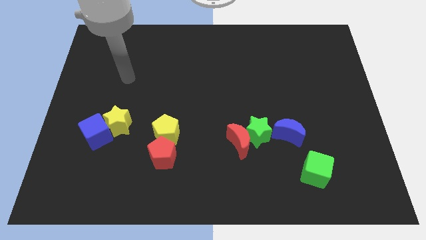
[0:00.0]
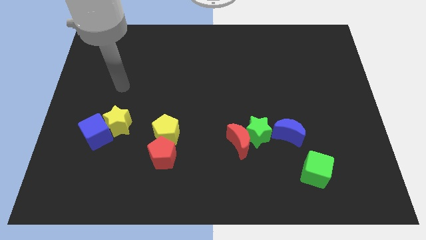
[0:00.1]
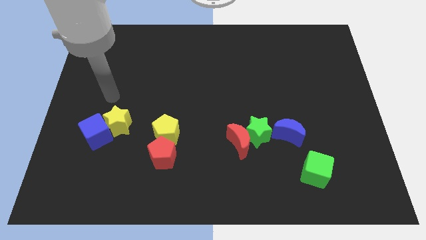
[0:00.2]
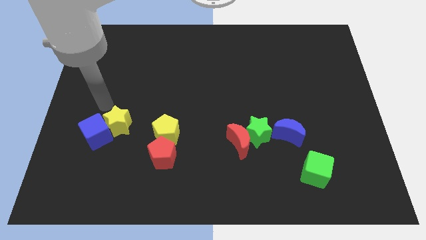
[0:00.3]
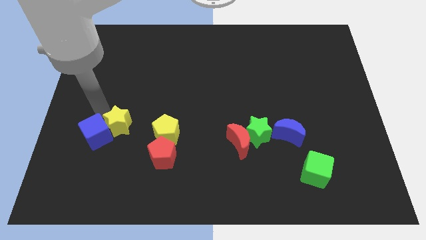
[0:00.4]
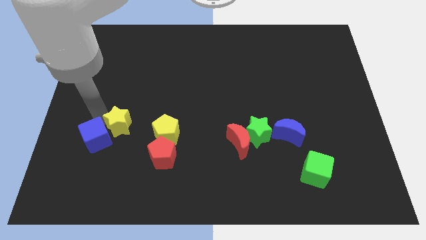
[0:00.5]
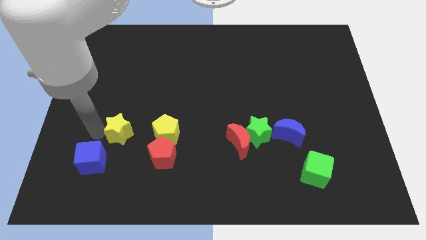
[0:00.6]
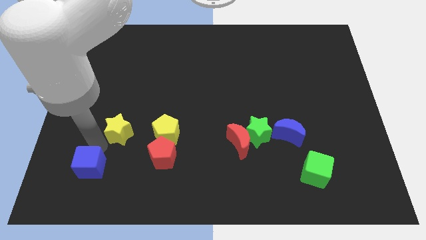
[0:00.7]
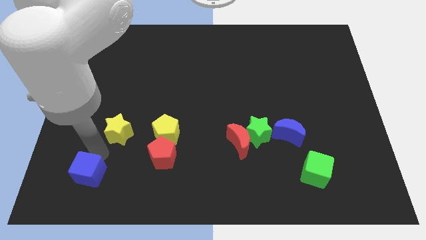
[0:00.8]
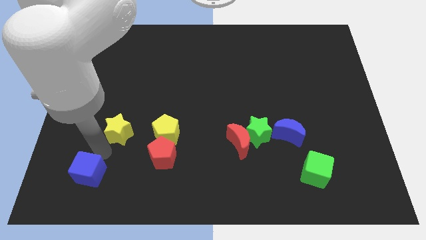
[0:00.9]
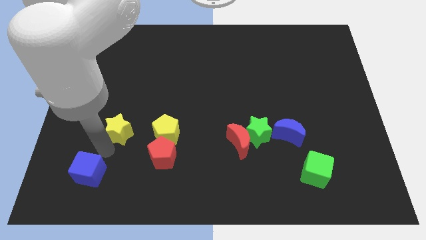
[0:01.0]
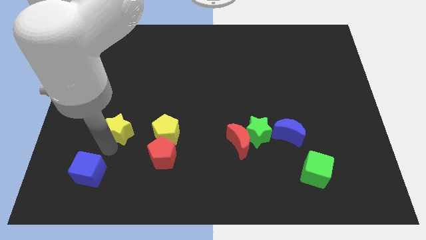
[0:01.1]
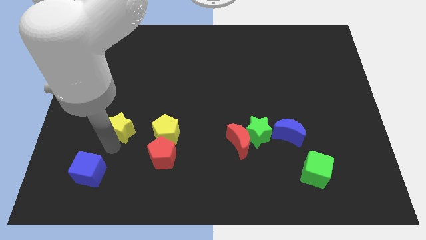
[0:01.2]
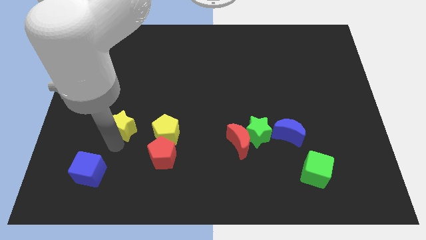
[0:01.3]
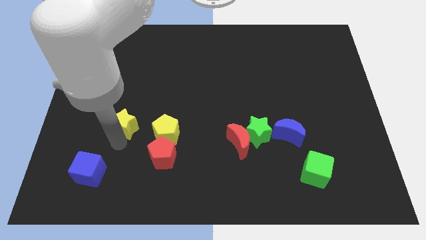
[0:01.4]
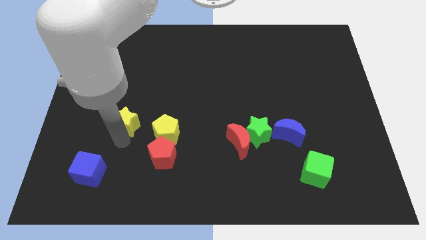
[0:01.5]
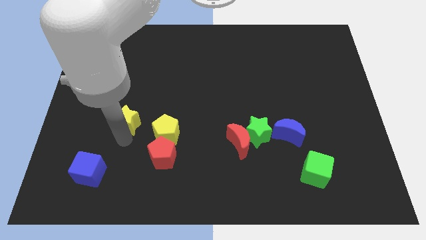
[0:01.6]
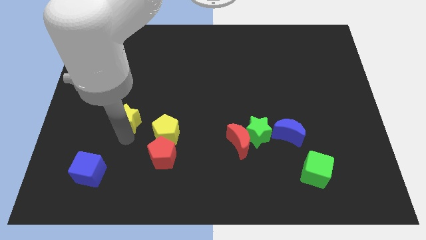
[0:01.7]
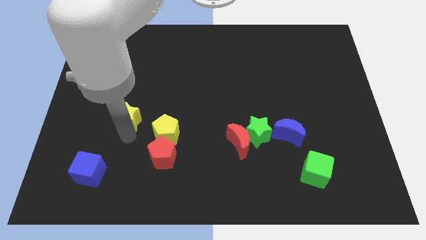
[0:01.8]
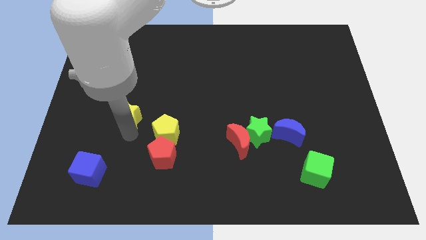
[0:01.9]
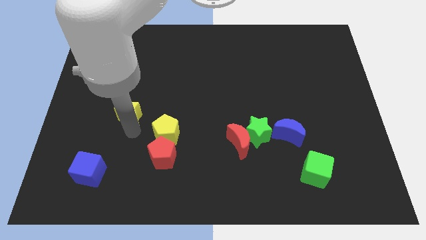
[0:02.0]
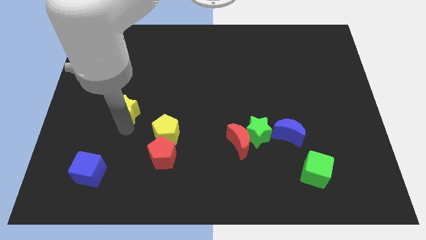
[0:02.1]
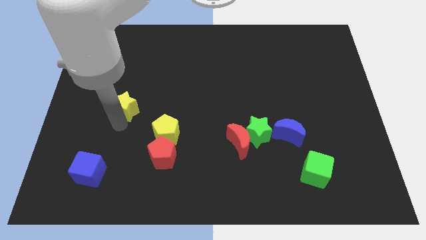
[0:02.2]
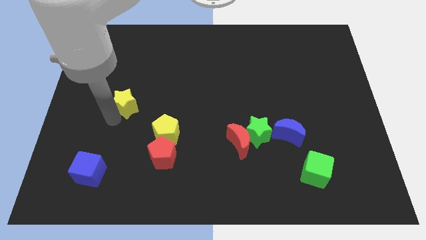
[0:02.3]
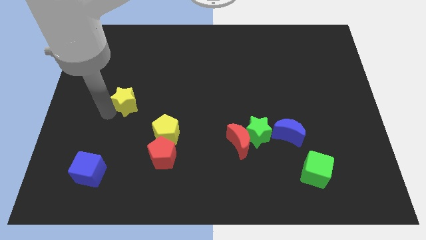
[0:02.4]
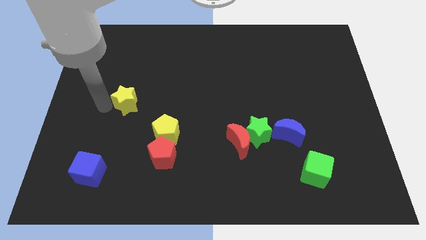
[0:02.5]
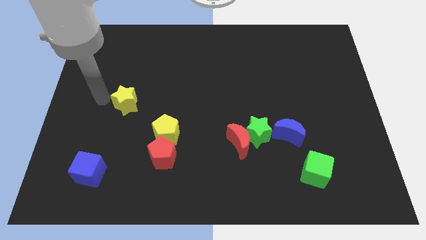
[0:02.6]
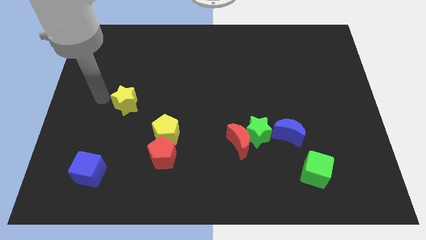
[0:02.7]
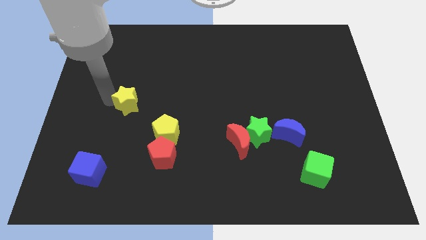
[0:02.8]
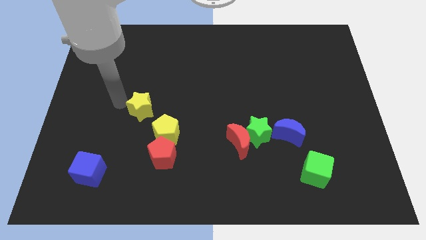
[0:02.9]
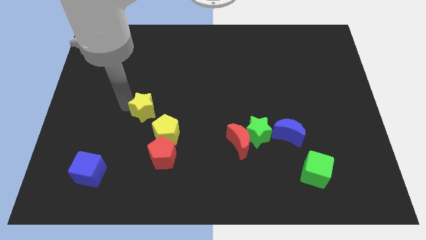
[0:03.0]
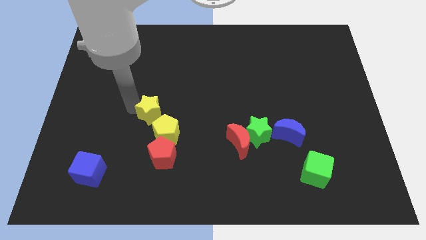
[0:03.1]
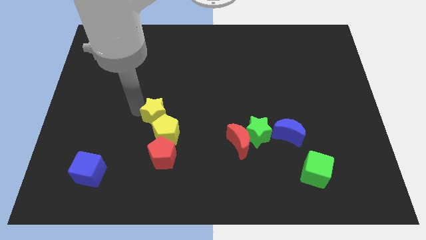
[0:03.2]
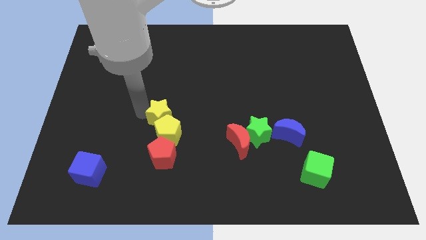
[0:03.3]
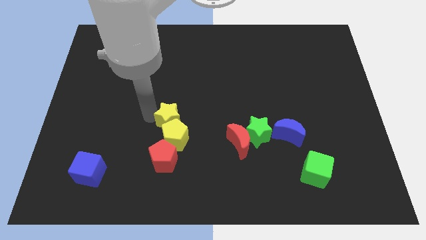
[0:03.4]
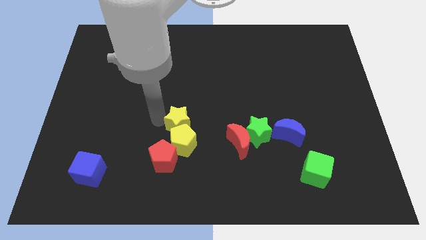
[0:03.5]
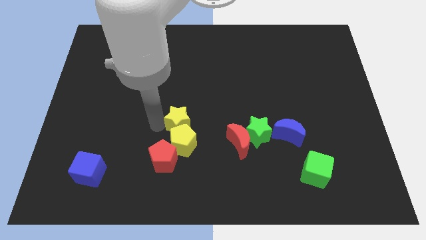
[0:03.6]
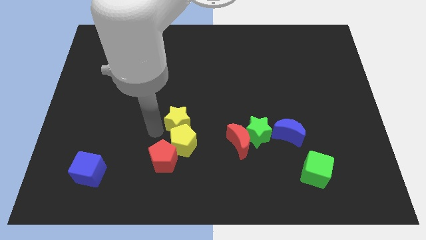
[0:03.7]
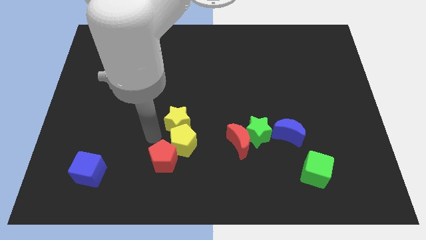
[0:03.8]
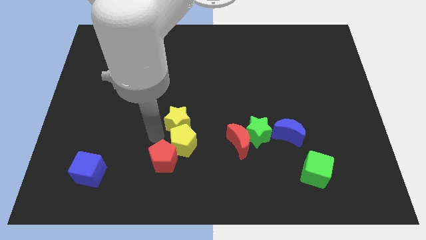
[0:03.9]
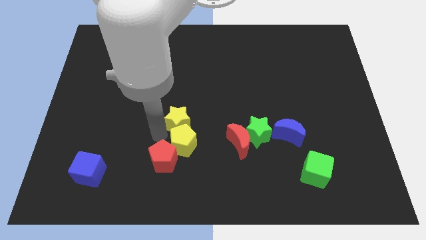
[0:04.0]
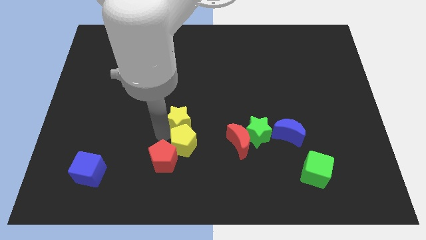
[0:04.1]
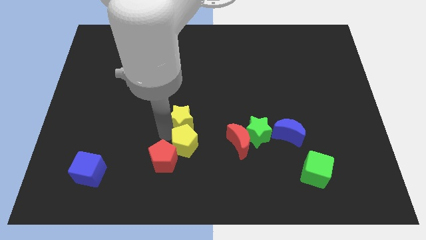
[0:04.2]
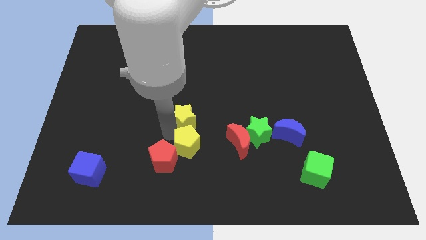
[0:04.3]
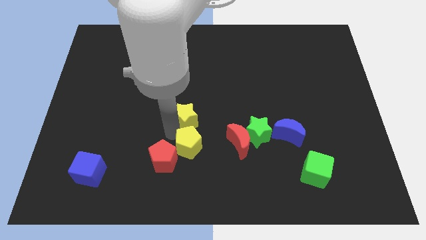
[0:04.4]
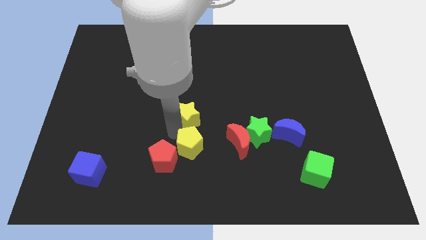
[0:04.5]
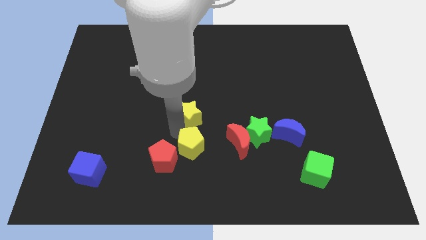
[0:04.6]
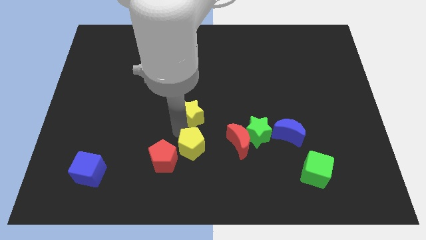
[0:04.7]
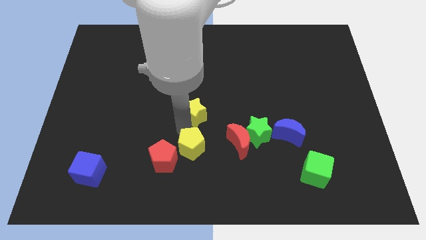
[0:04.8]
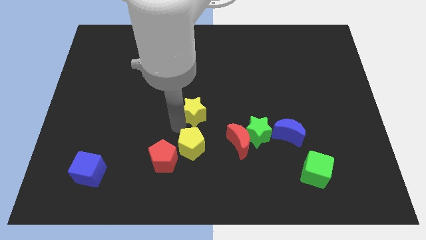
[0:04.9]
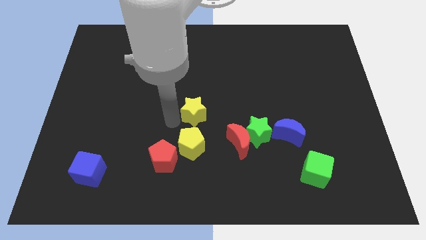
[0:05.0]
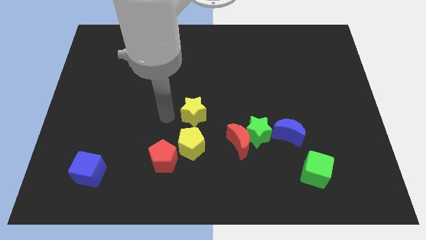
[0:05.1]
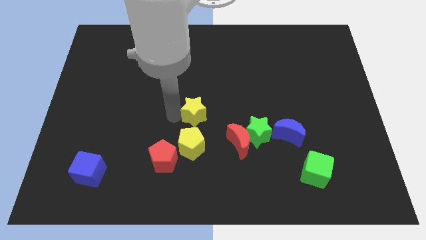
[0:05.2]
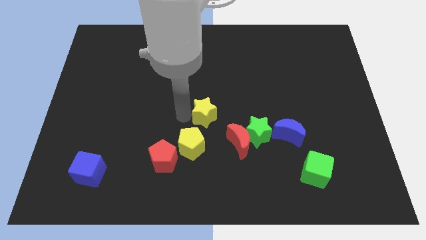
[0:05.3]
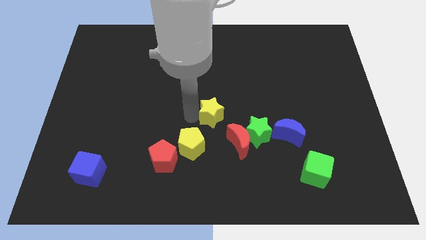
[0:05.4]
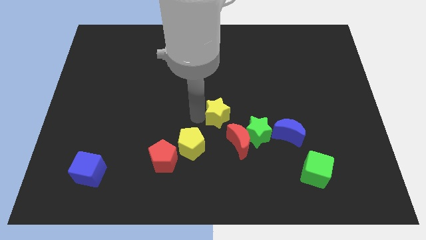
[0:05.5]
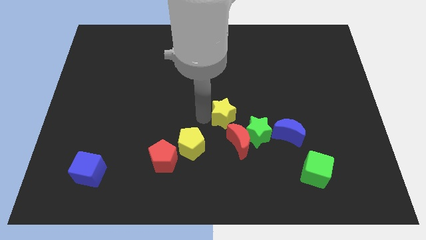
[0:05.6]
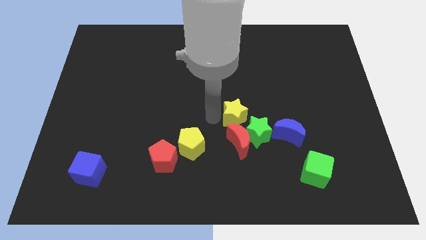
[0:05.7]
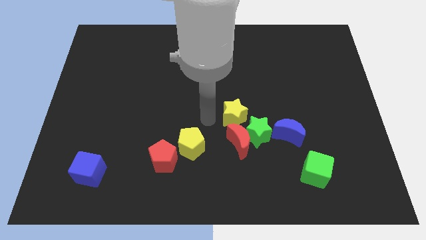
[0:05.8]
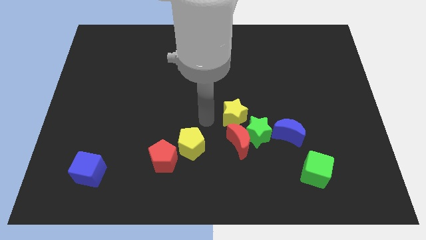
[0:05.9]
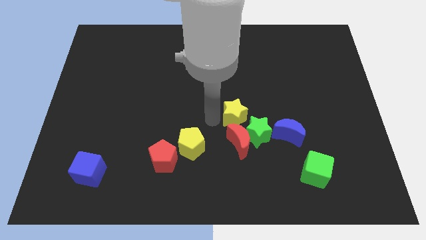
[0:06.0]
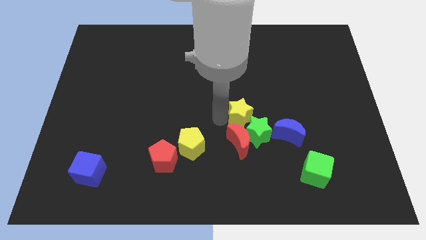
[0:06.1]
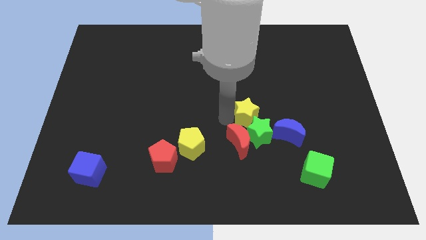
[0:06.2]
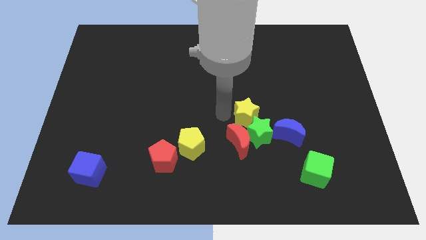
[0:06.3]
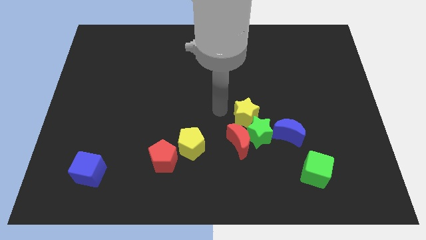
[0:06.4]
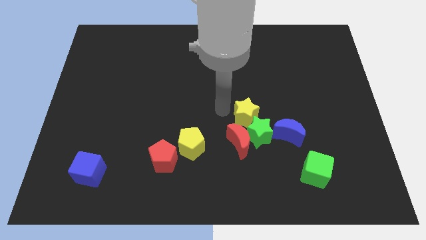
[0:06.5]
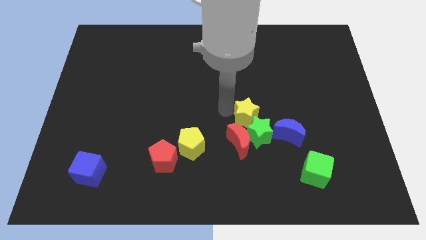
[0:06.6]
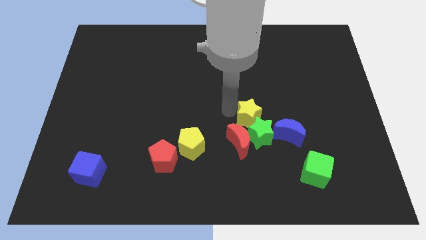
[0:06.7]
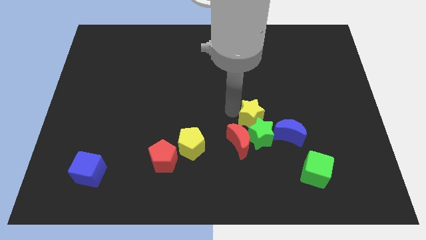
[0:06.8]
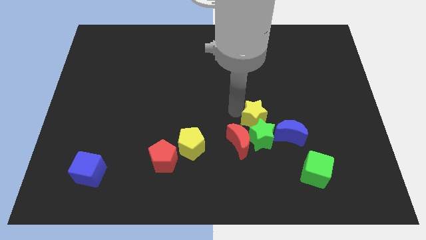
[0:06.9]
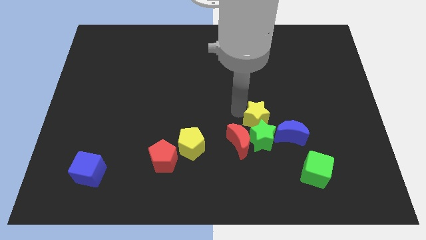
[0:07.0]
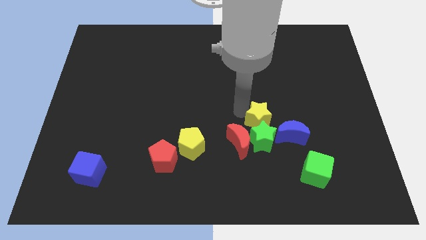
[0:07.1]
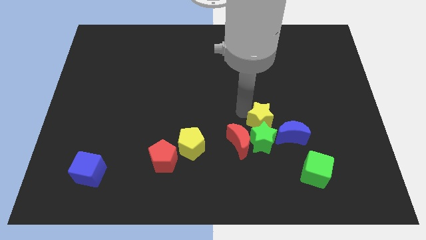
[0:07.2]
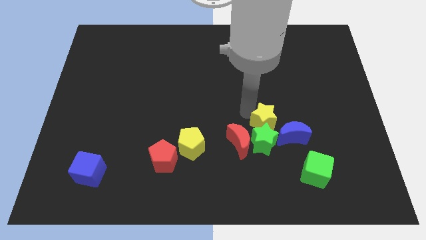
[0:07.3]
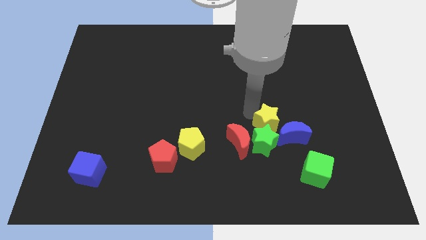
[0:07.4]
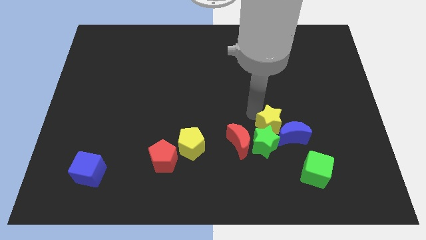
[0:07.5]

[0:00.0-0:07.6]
slide the yellow star towards the blue moon
